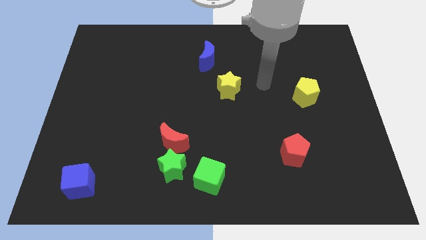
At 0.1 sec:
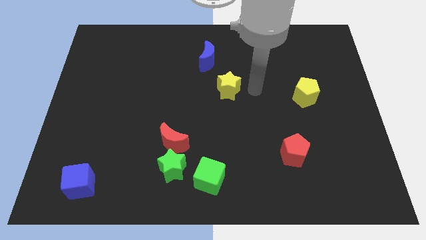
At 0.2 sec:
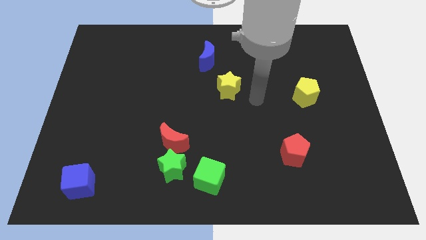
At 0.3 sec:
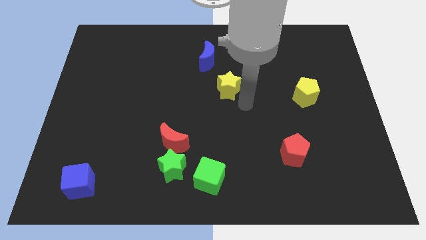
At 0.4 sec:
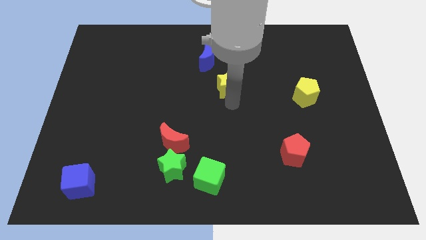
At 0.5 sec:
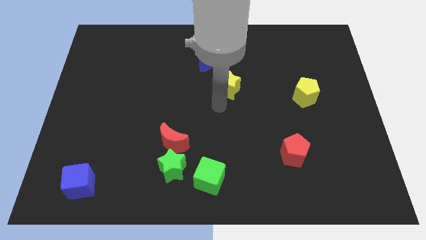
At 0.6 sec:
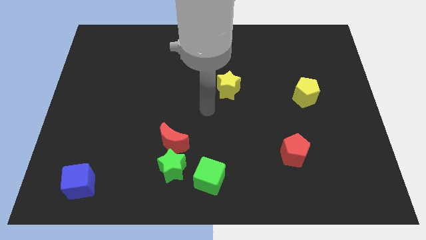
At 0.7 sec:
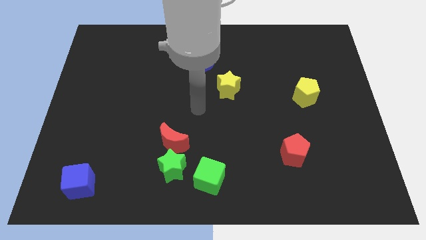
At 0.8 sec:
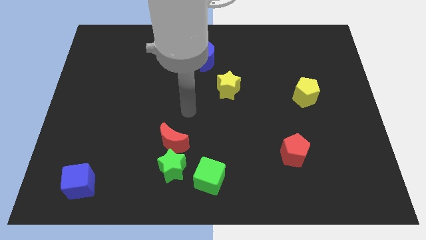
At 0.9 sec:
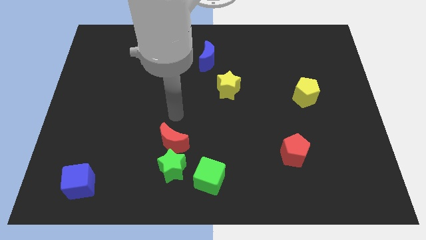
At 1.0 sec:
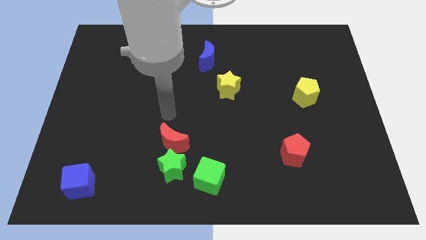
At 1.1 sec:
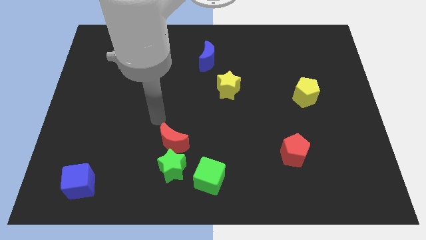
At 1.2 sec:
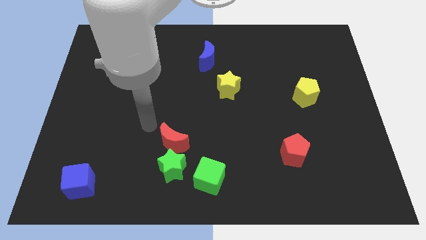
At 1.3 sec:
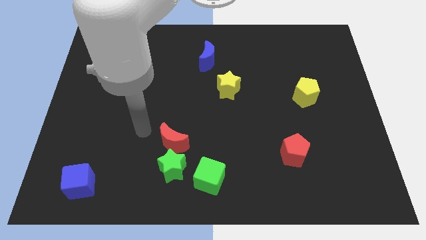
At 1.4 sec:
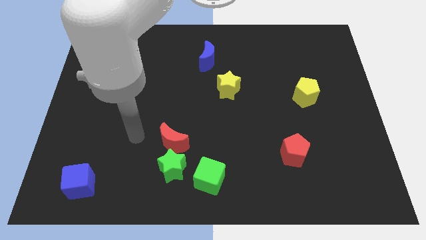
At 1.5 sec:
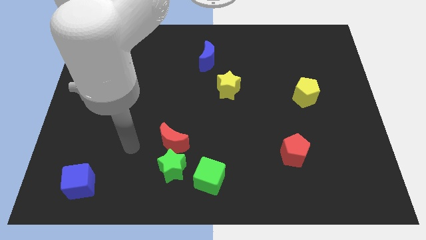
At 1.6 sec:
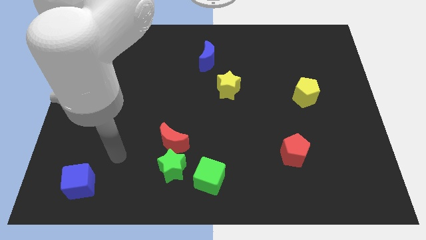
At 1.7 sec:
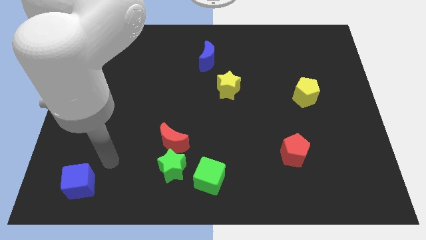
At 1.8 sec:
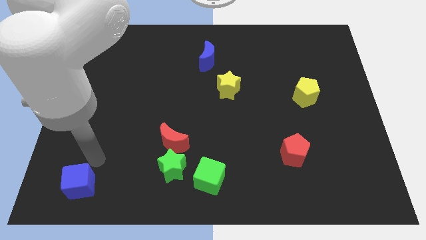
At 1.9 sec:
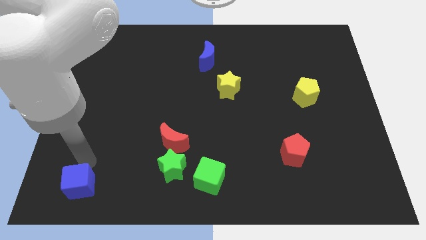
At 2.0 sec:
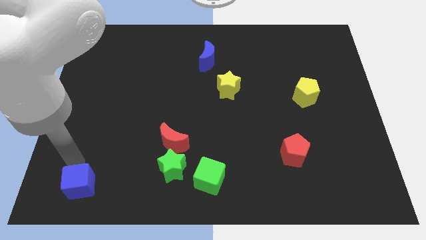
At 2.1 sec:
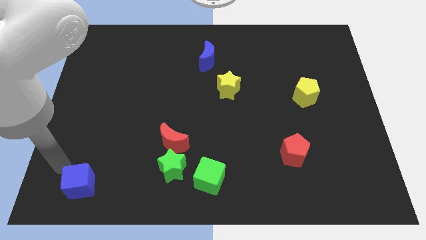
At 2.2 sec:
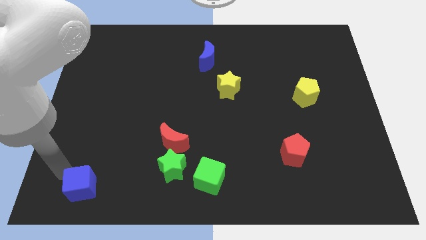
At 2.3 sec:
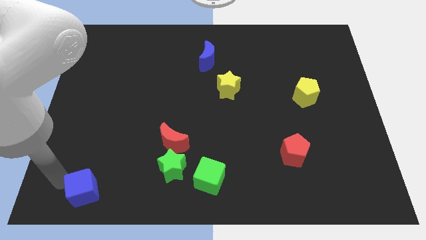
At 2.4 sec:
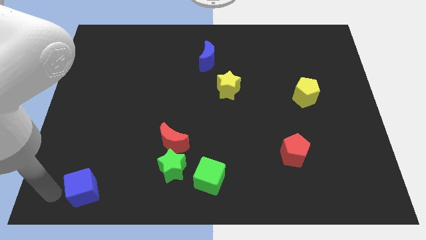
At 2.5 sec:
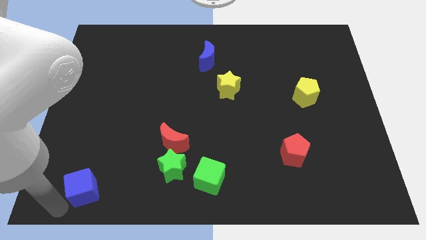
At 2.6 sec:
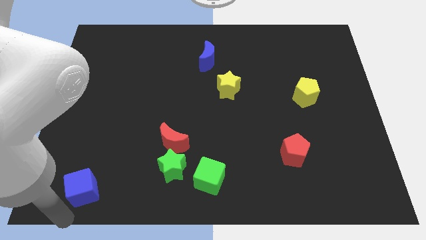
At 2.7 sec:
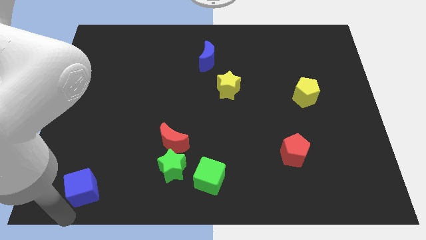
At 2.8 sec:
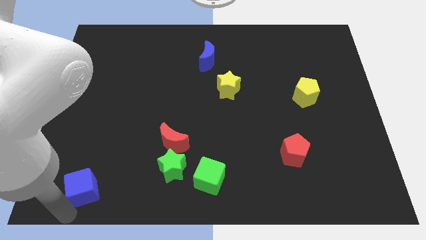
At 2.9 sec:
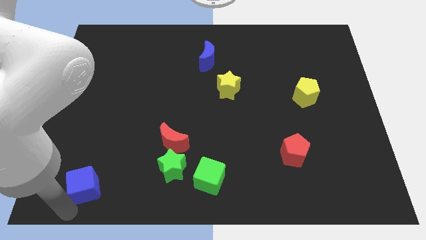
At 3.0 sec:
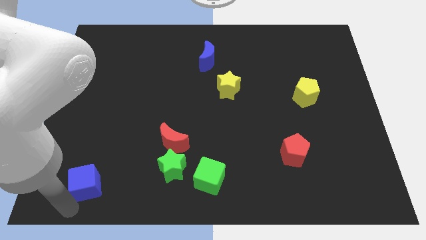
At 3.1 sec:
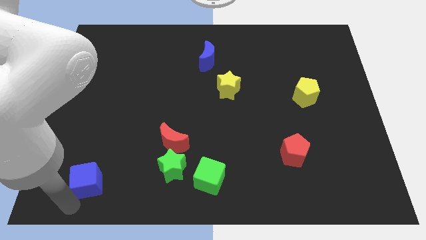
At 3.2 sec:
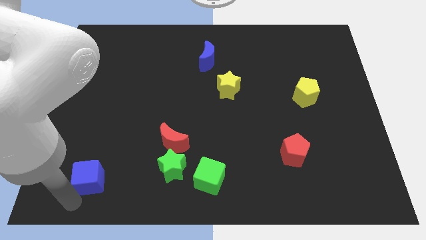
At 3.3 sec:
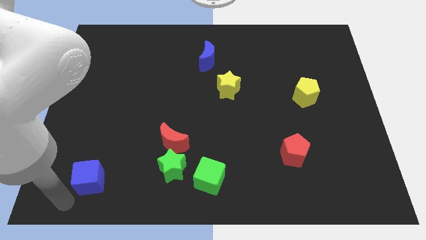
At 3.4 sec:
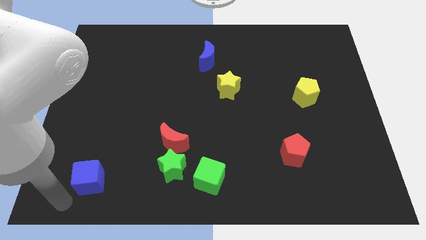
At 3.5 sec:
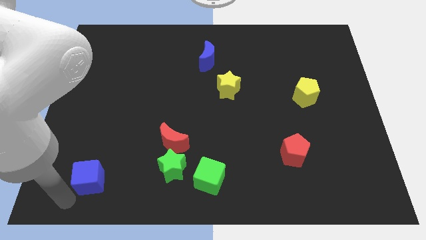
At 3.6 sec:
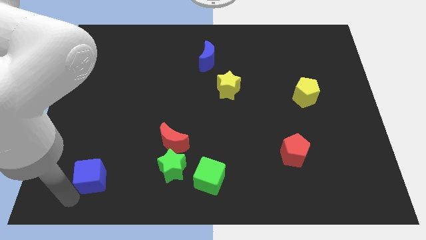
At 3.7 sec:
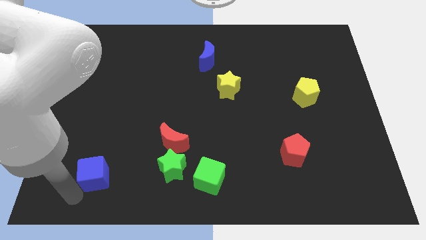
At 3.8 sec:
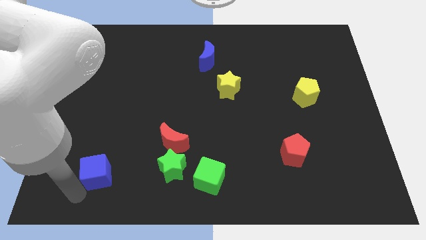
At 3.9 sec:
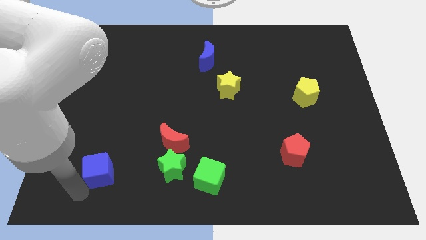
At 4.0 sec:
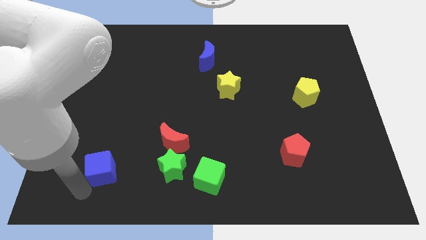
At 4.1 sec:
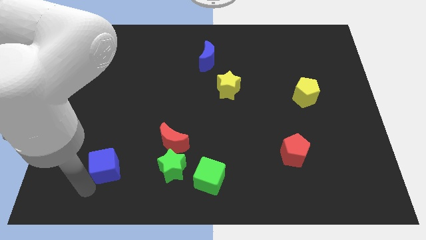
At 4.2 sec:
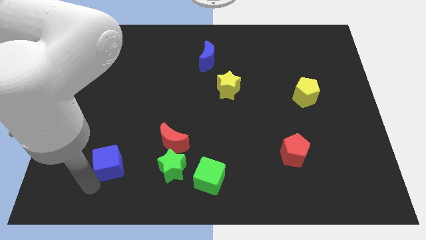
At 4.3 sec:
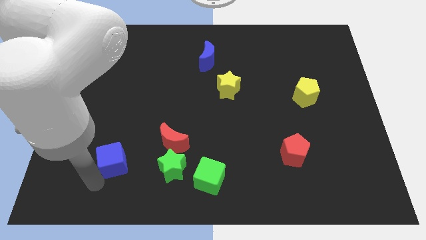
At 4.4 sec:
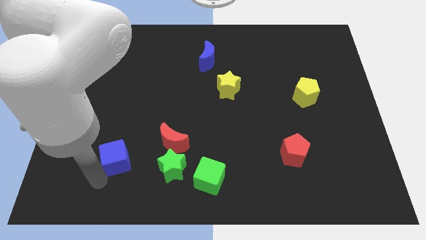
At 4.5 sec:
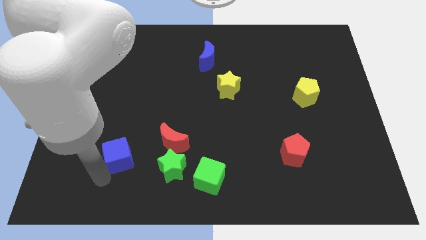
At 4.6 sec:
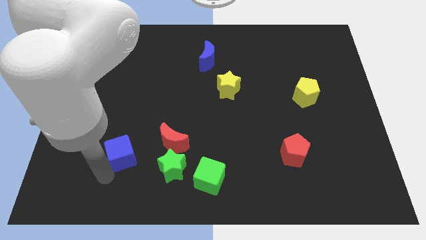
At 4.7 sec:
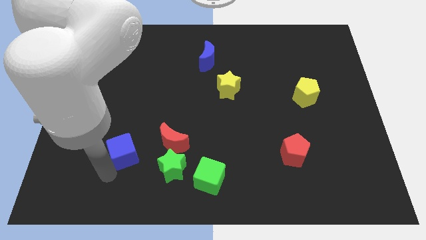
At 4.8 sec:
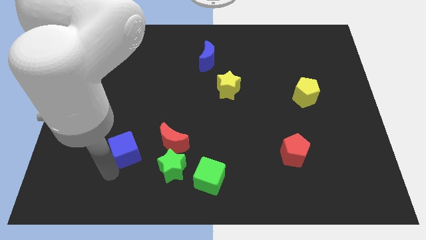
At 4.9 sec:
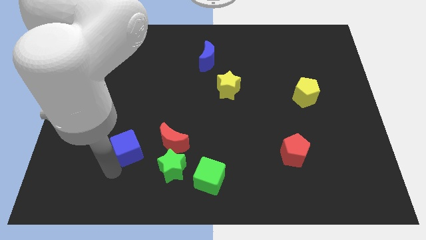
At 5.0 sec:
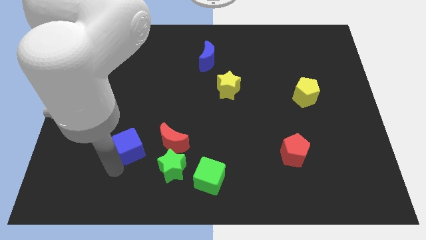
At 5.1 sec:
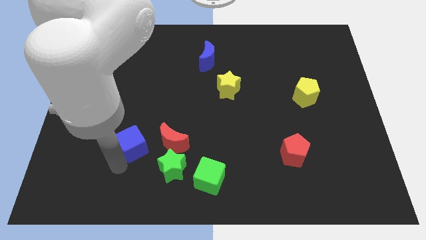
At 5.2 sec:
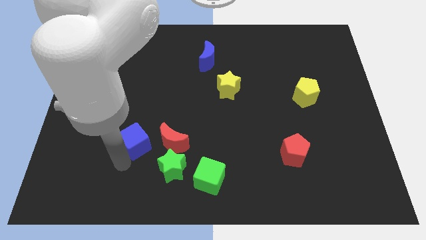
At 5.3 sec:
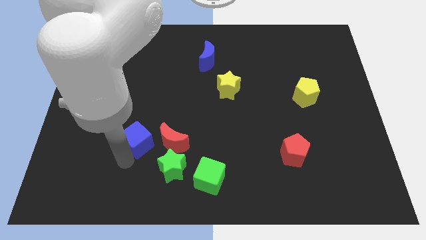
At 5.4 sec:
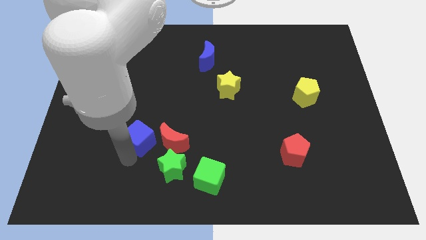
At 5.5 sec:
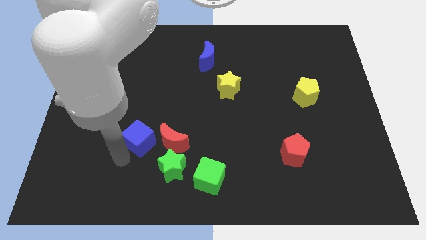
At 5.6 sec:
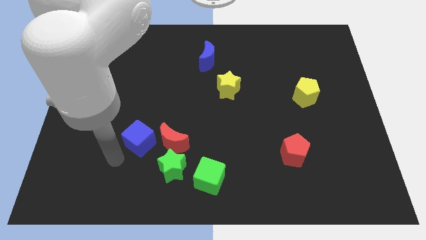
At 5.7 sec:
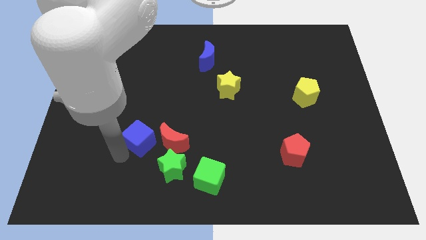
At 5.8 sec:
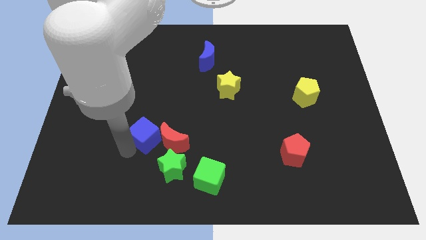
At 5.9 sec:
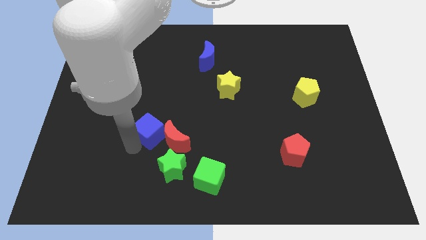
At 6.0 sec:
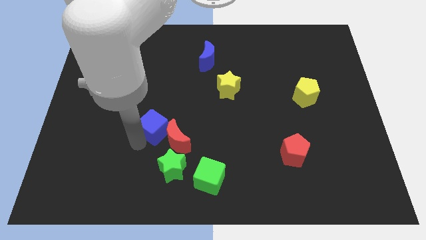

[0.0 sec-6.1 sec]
move the blue cube above the green star
